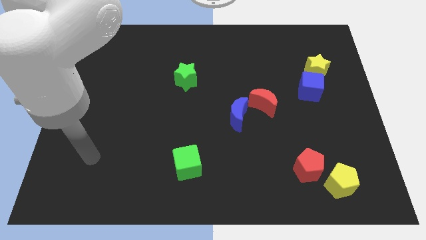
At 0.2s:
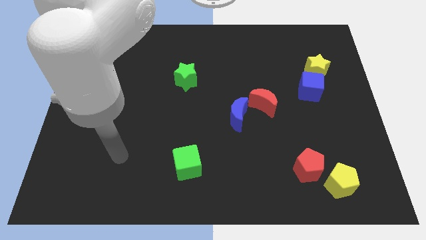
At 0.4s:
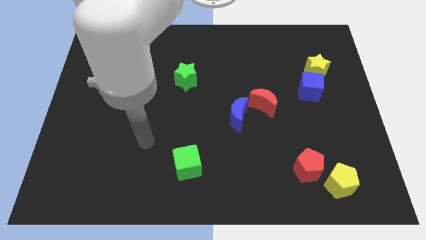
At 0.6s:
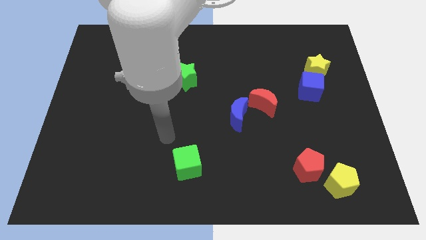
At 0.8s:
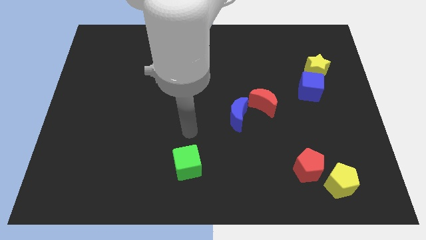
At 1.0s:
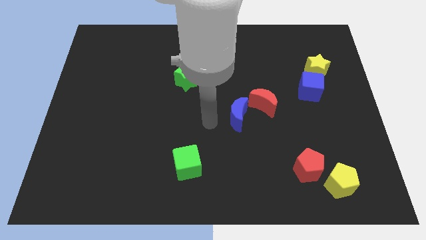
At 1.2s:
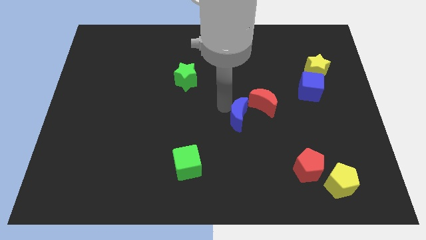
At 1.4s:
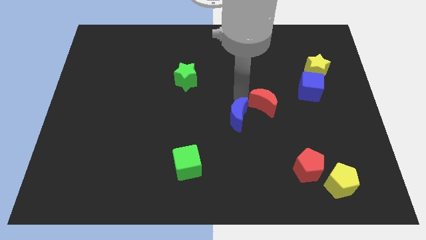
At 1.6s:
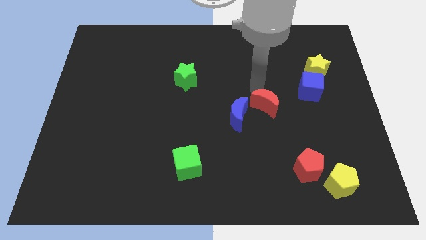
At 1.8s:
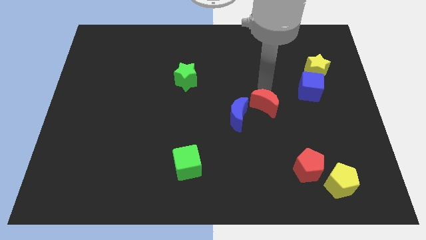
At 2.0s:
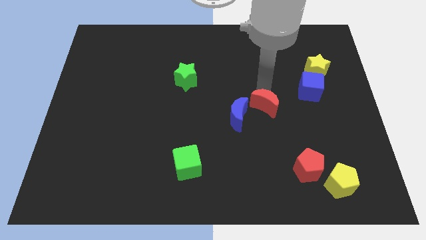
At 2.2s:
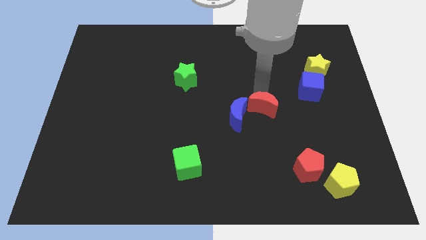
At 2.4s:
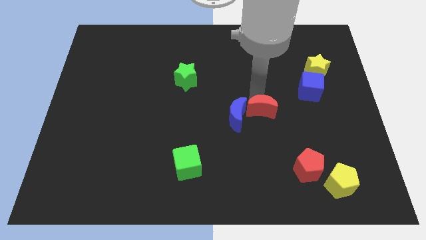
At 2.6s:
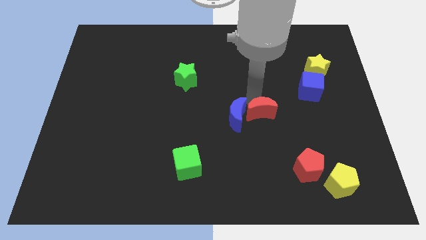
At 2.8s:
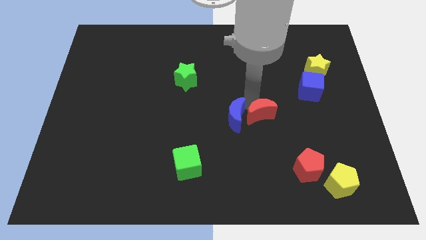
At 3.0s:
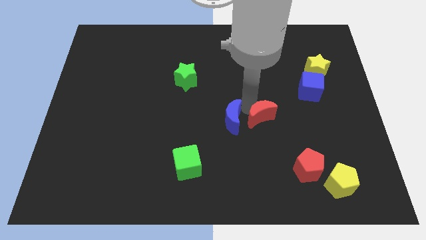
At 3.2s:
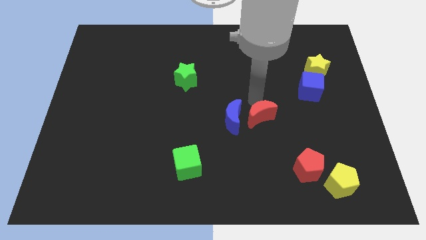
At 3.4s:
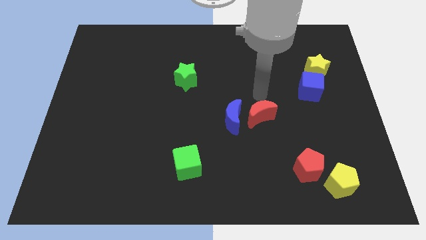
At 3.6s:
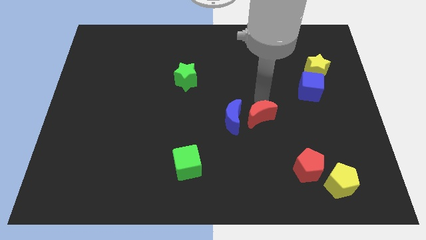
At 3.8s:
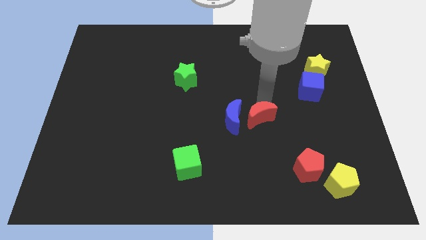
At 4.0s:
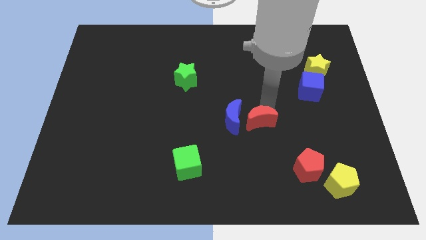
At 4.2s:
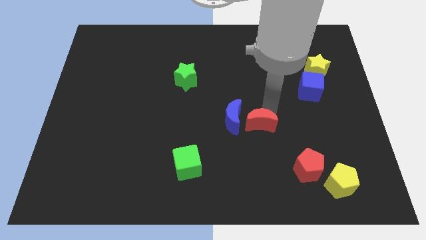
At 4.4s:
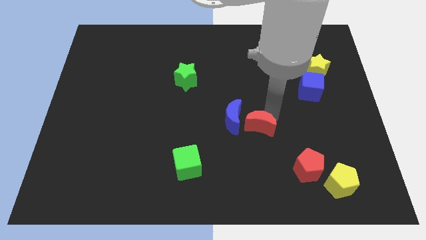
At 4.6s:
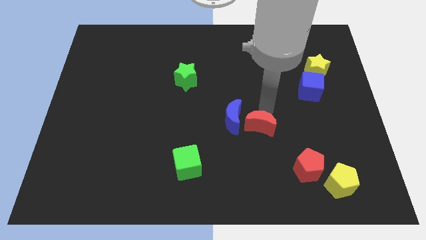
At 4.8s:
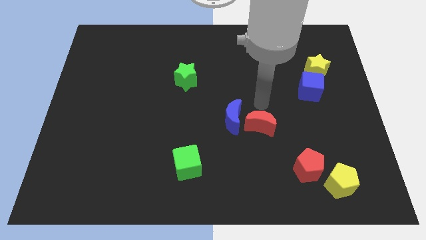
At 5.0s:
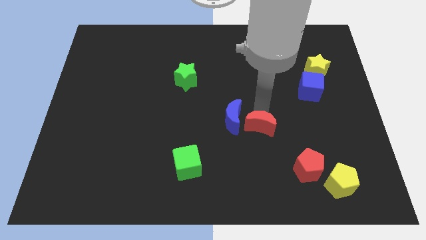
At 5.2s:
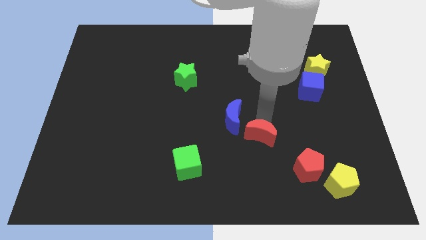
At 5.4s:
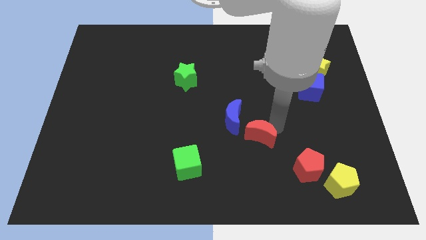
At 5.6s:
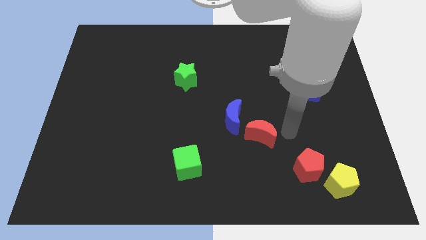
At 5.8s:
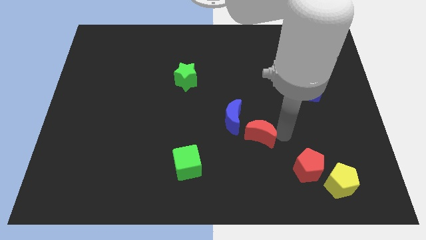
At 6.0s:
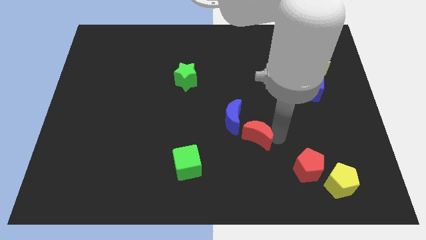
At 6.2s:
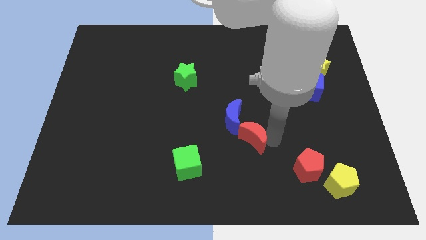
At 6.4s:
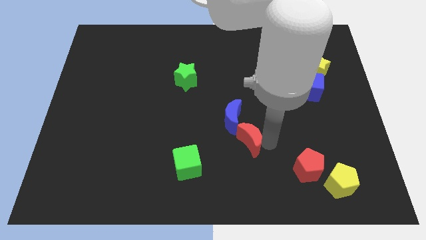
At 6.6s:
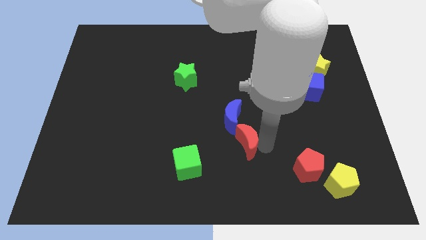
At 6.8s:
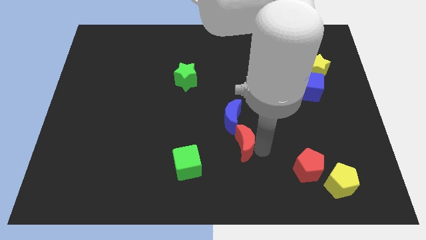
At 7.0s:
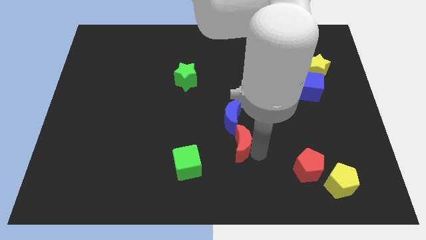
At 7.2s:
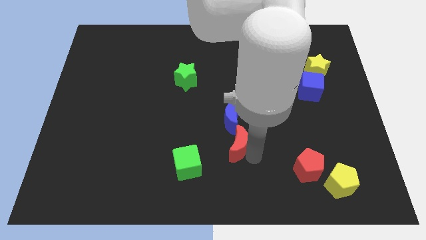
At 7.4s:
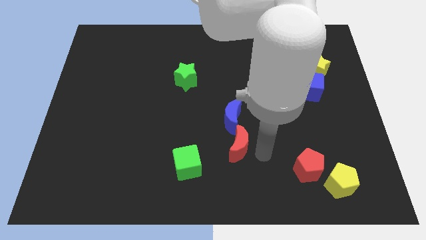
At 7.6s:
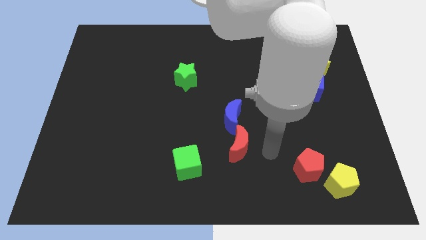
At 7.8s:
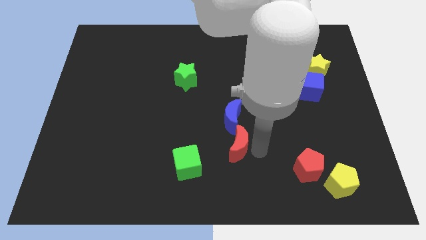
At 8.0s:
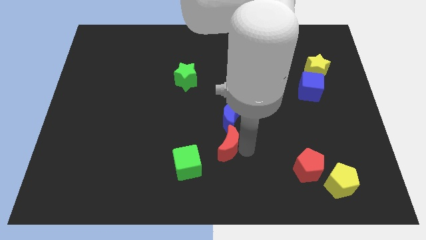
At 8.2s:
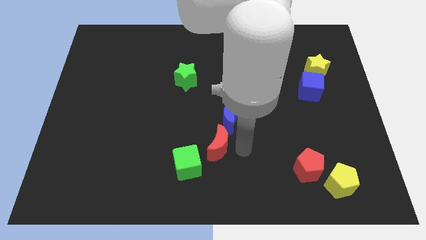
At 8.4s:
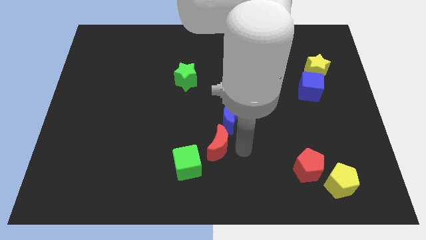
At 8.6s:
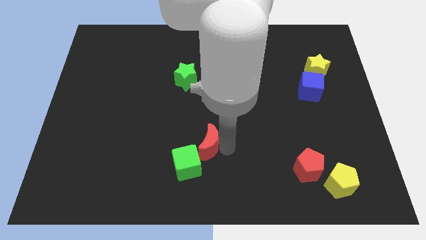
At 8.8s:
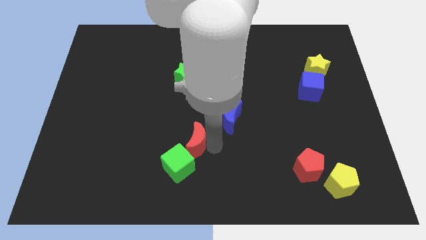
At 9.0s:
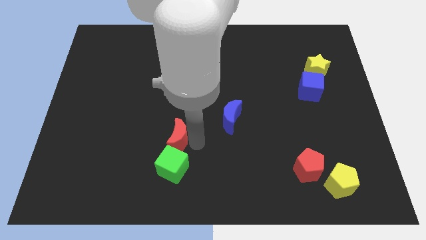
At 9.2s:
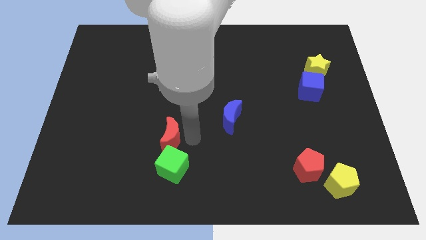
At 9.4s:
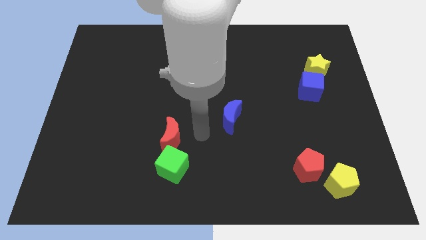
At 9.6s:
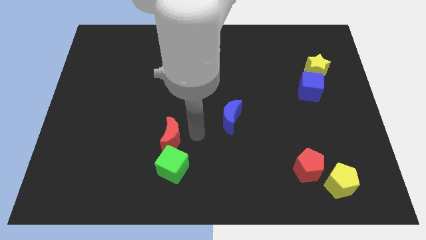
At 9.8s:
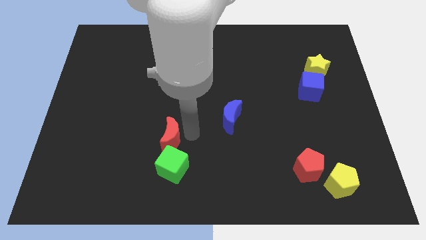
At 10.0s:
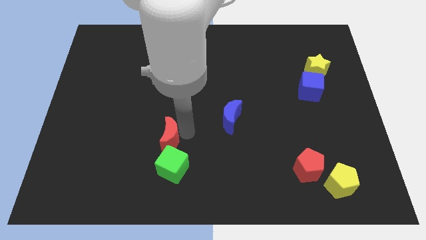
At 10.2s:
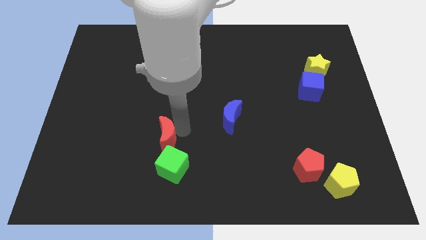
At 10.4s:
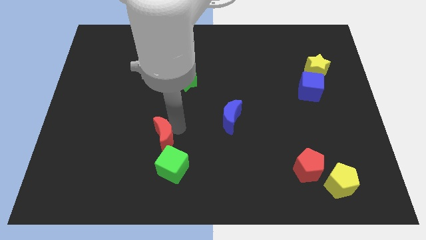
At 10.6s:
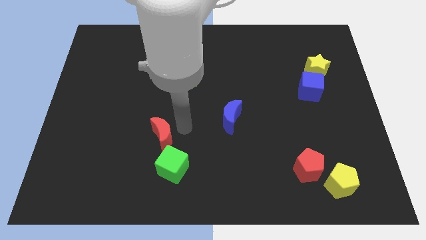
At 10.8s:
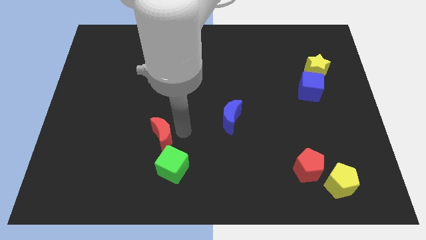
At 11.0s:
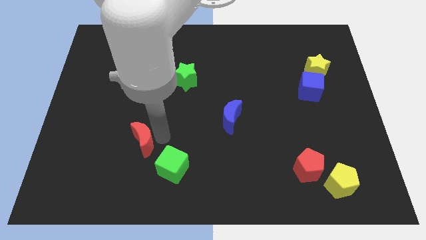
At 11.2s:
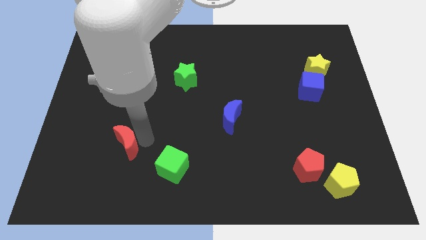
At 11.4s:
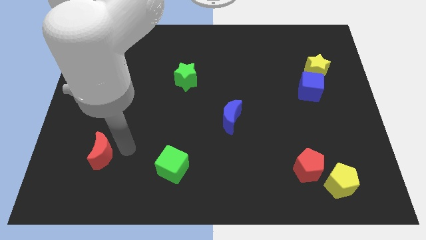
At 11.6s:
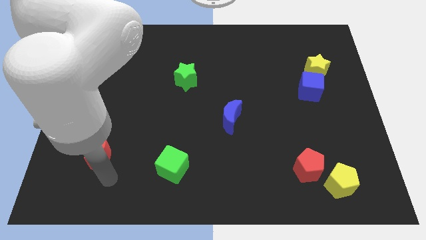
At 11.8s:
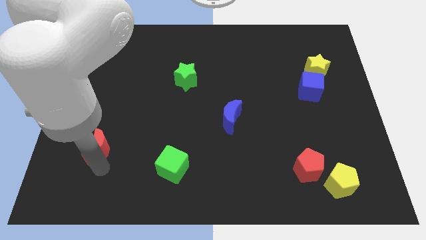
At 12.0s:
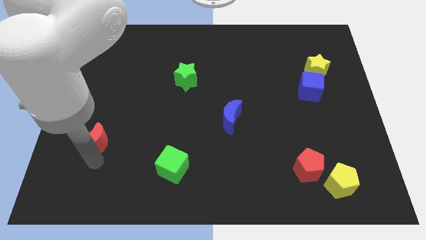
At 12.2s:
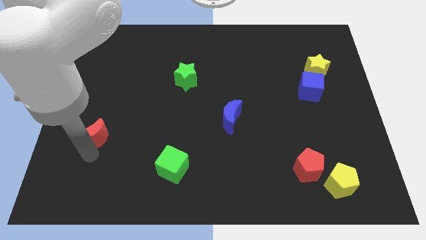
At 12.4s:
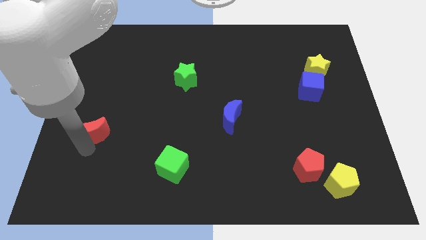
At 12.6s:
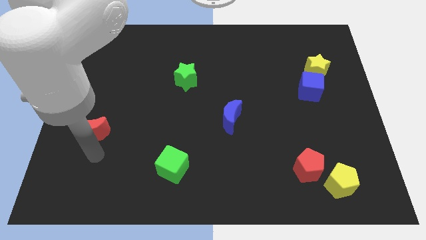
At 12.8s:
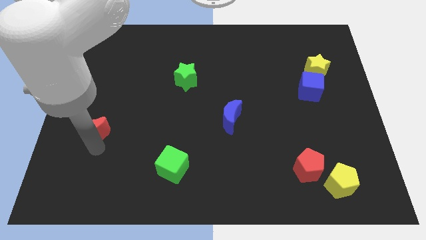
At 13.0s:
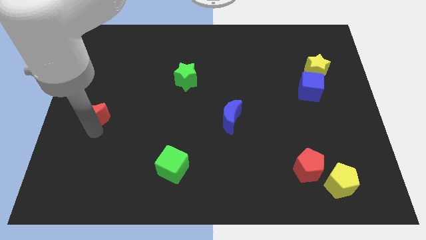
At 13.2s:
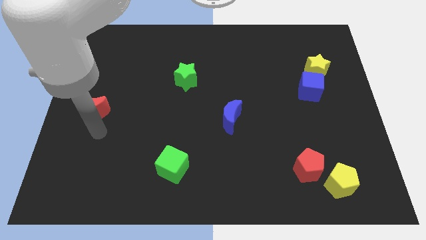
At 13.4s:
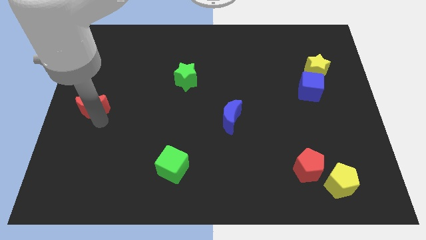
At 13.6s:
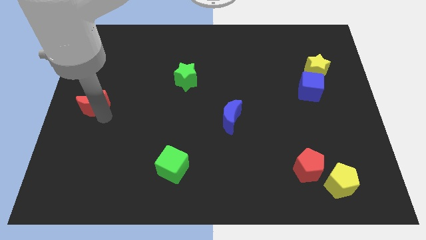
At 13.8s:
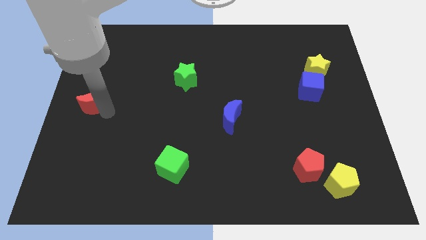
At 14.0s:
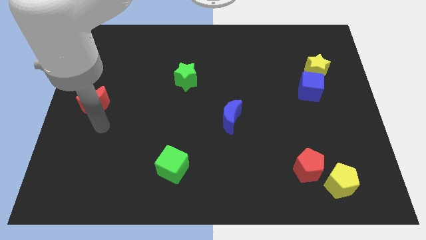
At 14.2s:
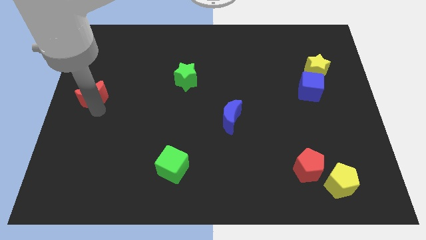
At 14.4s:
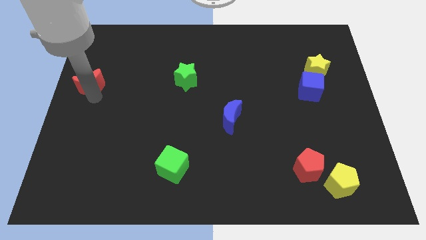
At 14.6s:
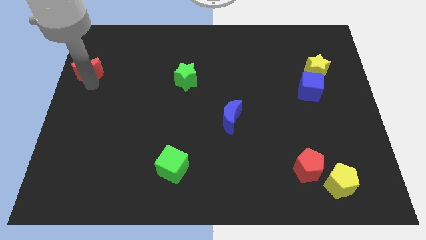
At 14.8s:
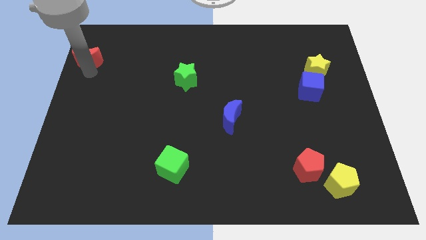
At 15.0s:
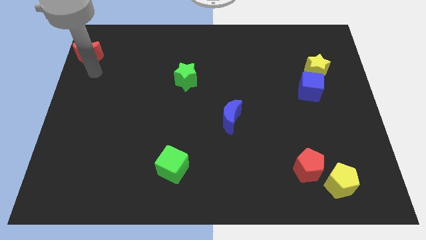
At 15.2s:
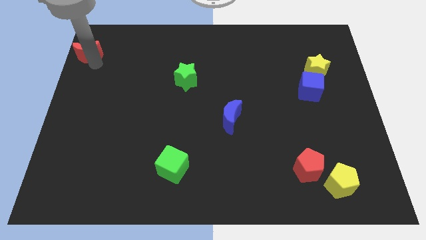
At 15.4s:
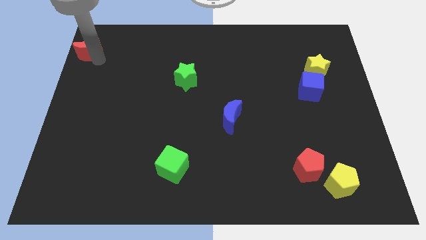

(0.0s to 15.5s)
move the red moon to the top left
